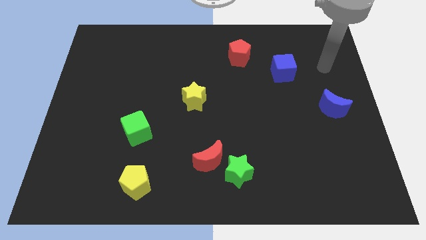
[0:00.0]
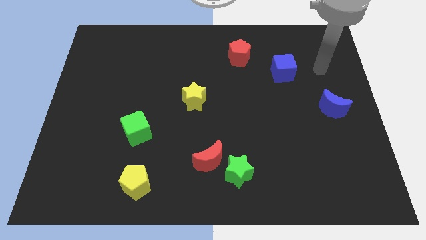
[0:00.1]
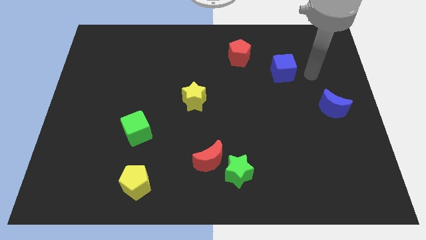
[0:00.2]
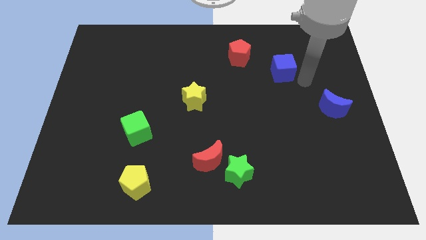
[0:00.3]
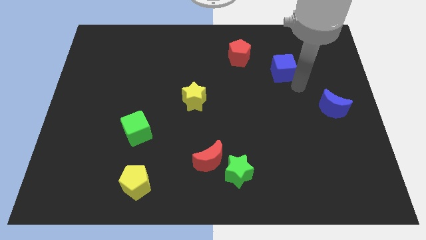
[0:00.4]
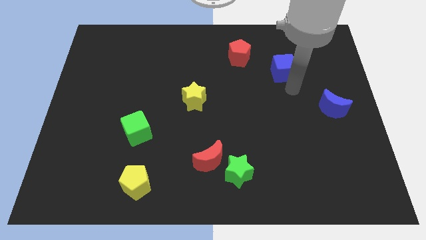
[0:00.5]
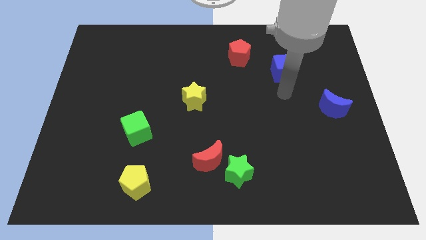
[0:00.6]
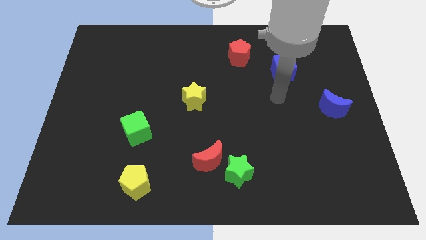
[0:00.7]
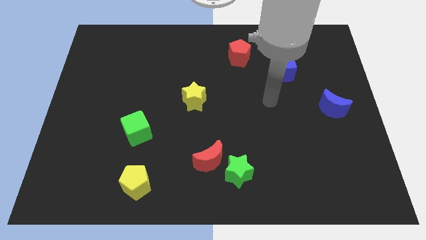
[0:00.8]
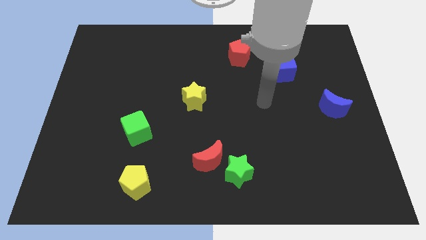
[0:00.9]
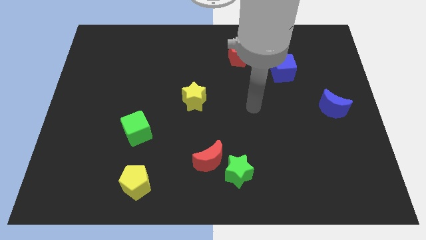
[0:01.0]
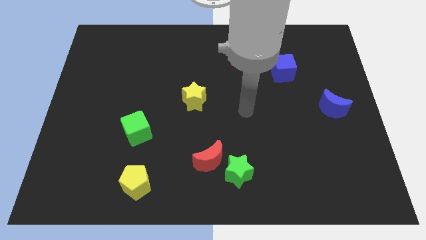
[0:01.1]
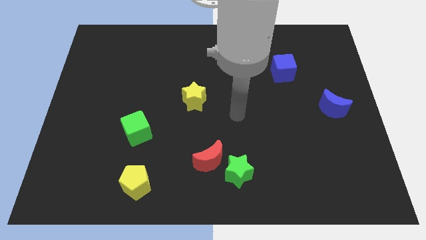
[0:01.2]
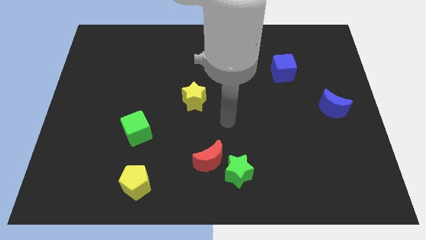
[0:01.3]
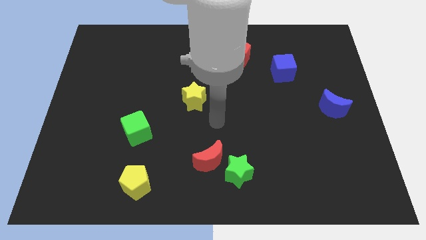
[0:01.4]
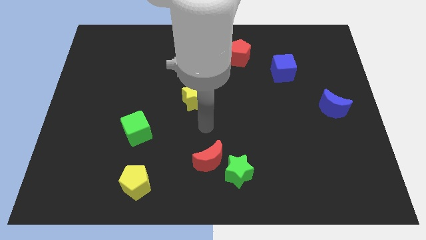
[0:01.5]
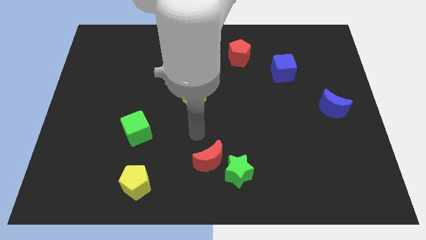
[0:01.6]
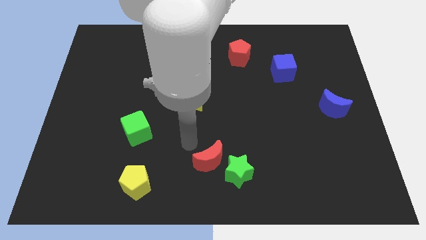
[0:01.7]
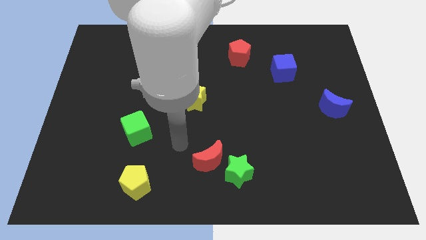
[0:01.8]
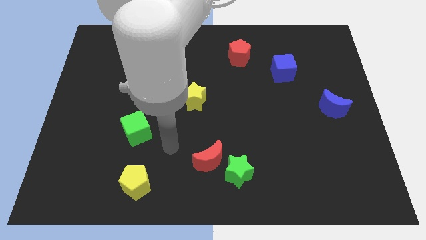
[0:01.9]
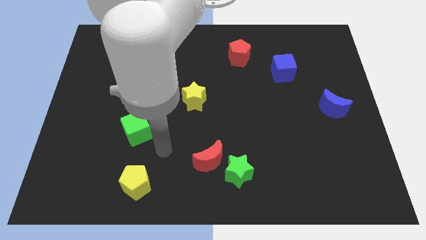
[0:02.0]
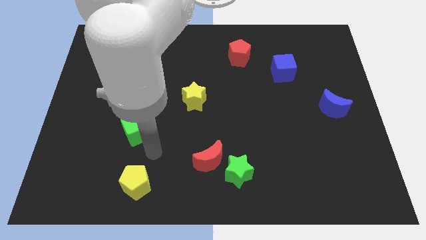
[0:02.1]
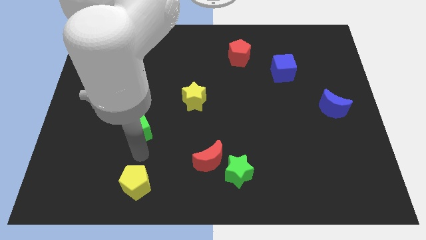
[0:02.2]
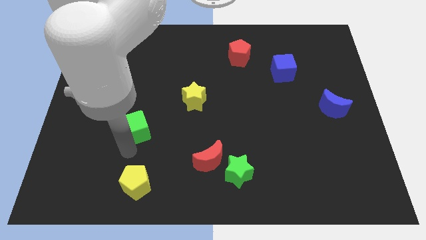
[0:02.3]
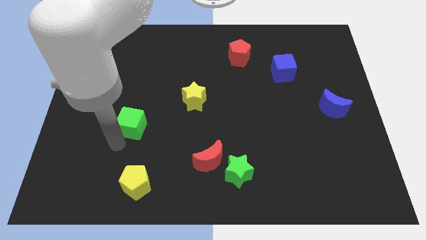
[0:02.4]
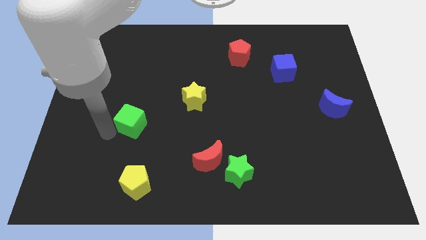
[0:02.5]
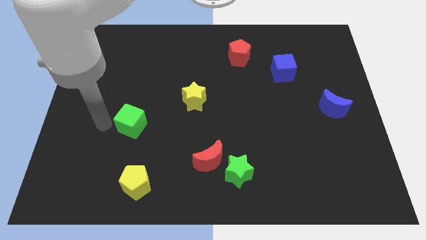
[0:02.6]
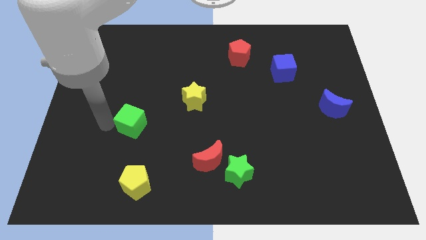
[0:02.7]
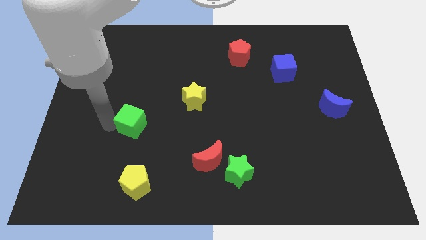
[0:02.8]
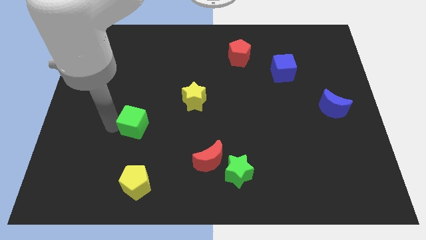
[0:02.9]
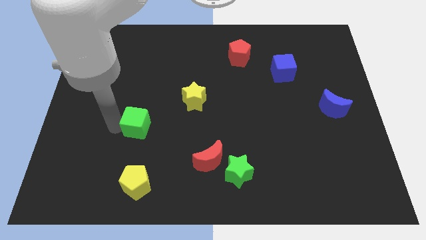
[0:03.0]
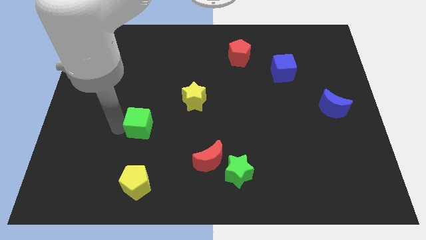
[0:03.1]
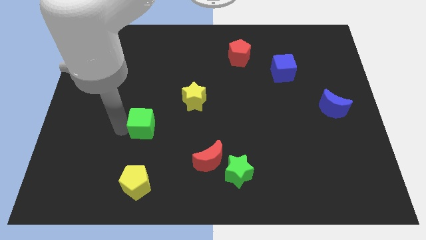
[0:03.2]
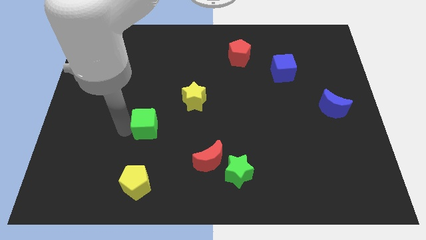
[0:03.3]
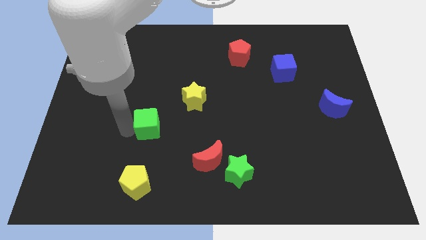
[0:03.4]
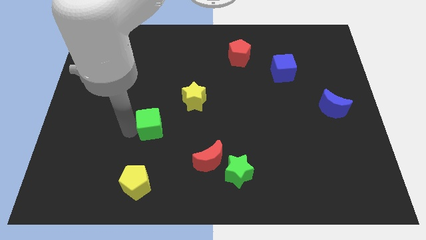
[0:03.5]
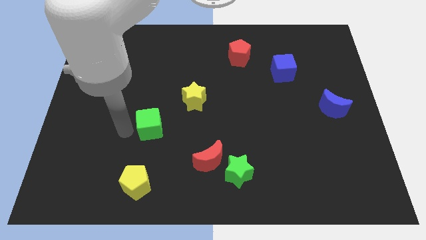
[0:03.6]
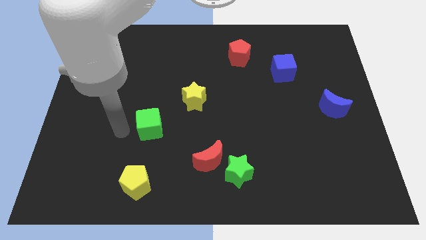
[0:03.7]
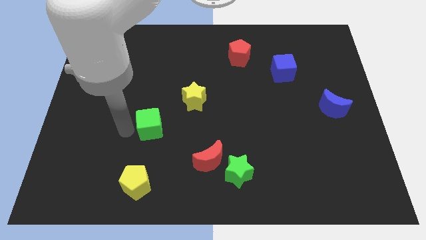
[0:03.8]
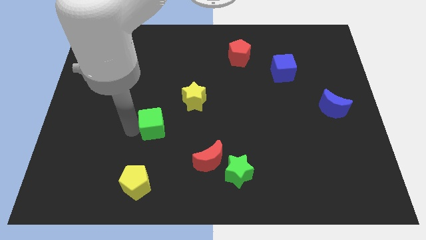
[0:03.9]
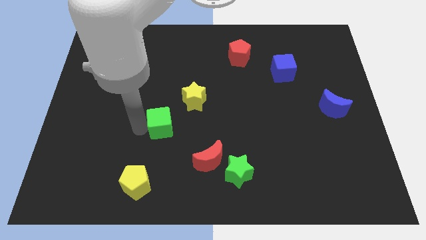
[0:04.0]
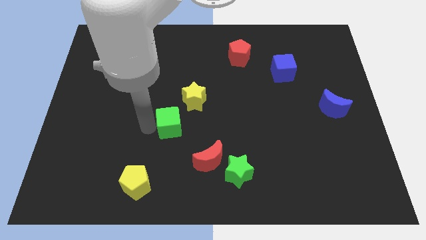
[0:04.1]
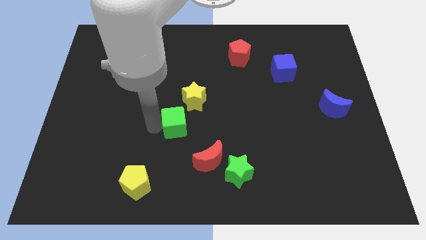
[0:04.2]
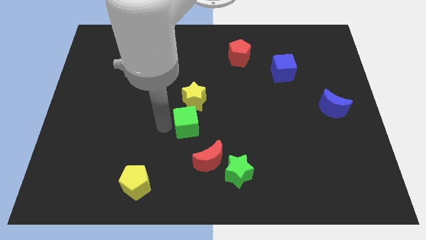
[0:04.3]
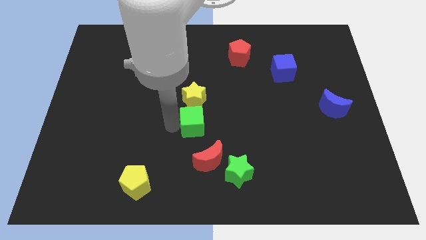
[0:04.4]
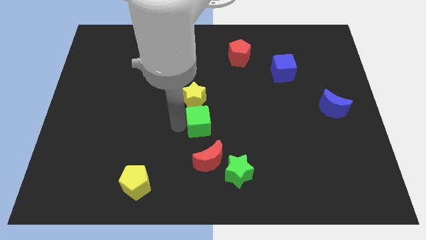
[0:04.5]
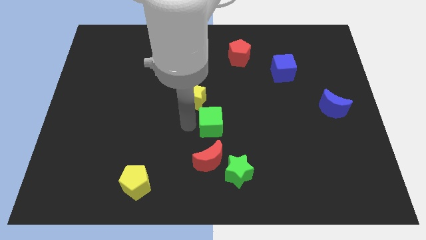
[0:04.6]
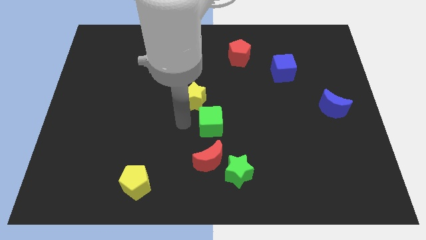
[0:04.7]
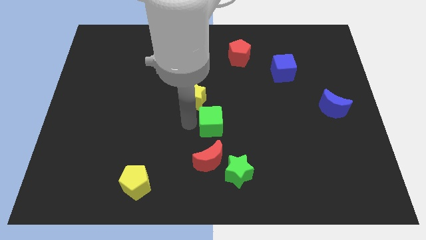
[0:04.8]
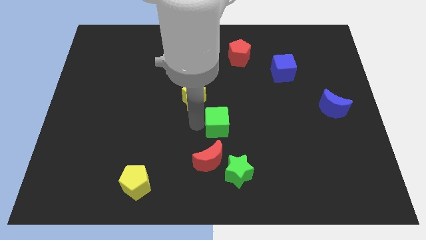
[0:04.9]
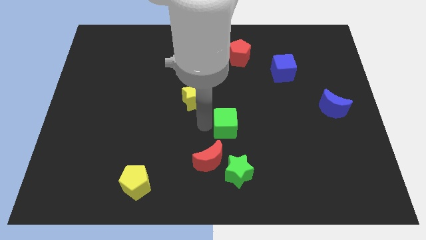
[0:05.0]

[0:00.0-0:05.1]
push the green cube to the right

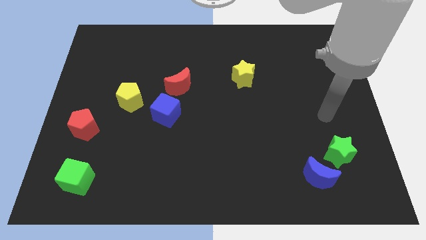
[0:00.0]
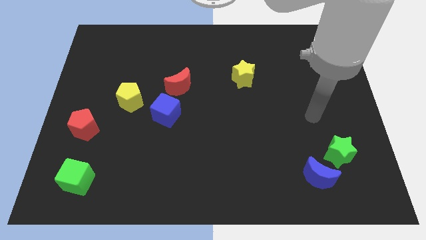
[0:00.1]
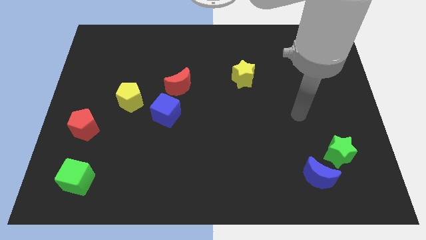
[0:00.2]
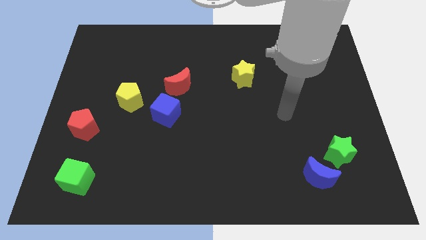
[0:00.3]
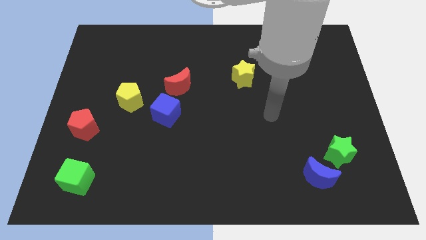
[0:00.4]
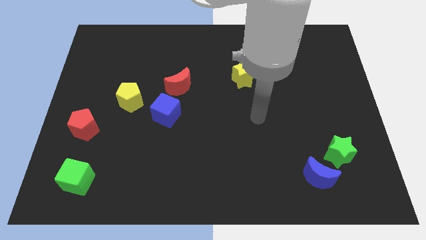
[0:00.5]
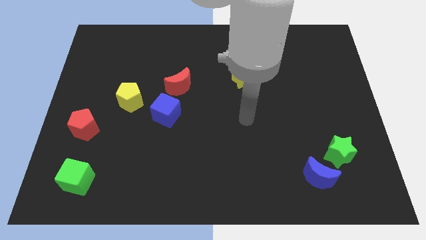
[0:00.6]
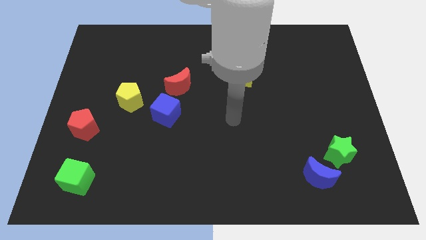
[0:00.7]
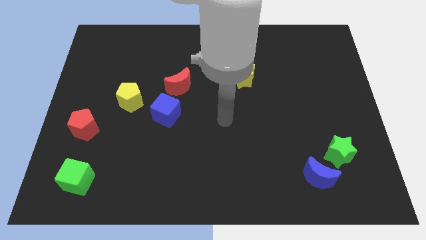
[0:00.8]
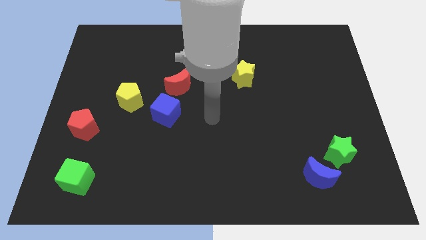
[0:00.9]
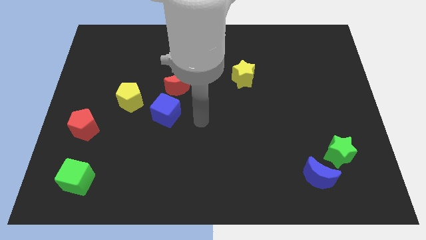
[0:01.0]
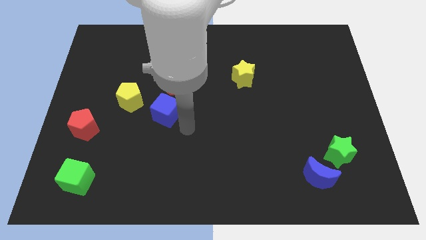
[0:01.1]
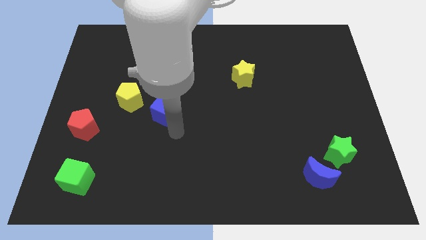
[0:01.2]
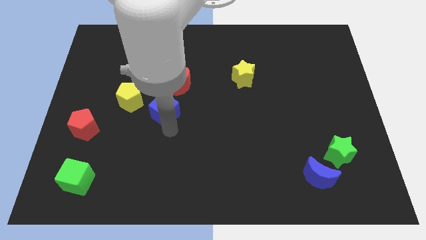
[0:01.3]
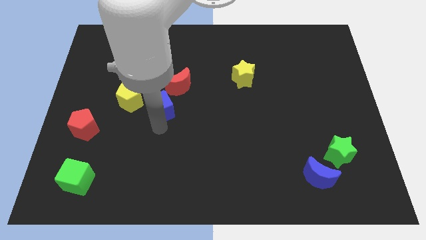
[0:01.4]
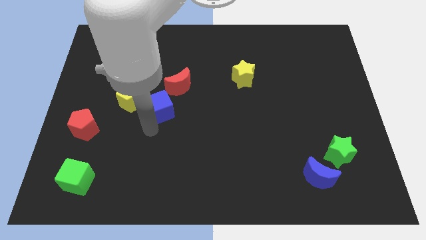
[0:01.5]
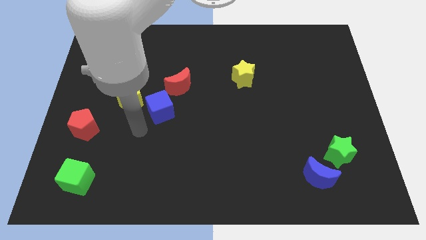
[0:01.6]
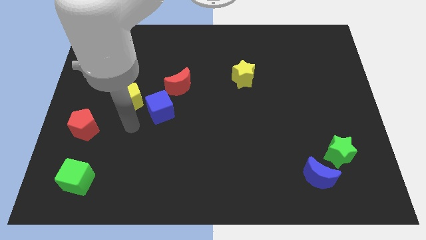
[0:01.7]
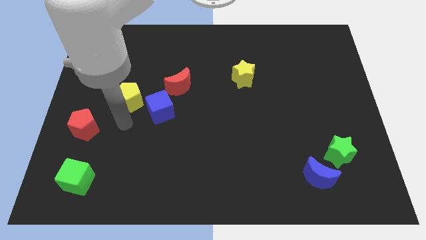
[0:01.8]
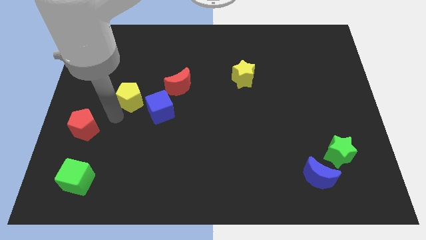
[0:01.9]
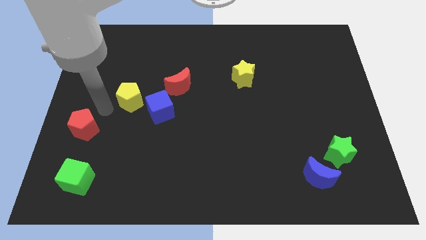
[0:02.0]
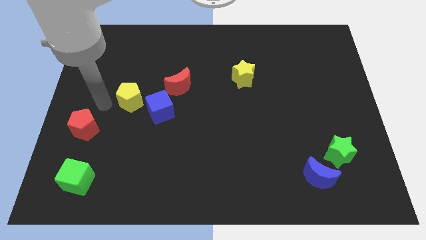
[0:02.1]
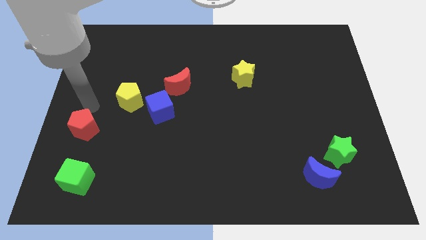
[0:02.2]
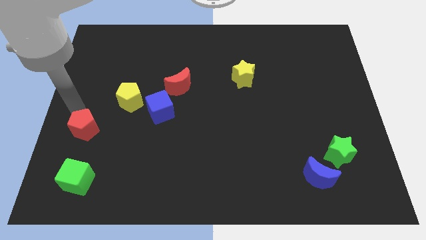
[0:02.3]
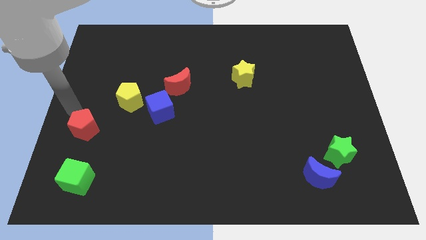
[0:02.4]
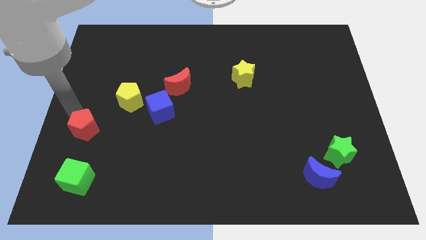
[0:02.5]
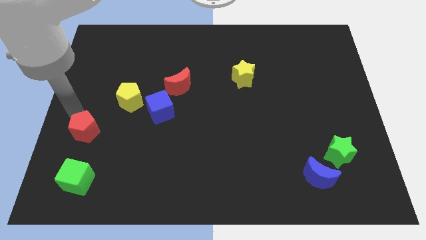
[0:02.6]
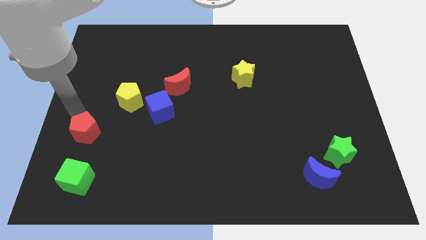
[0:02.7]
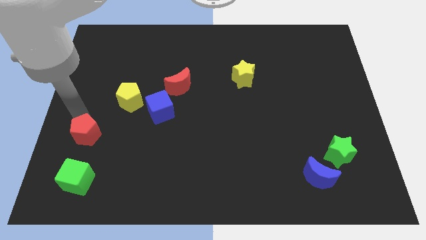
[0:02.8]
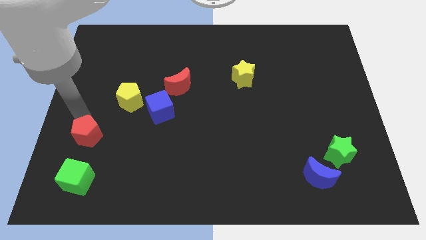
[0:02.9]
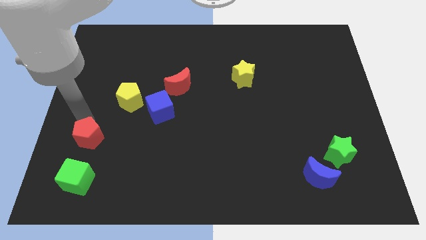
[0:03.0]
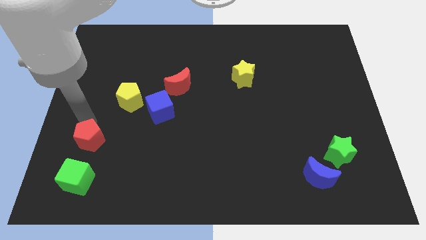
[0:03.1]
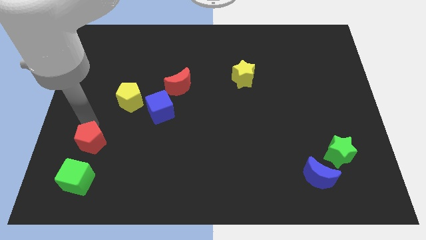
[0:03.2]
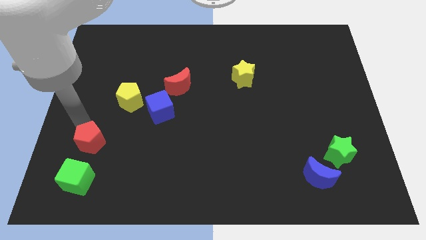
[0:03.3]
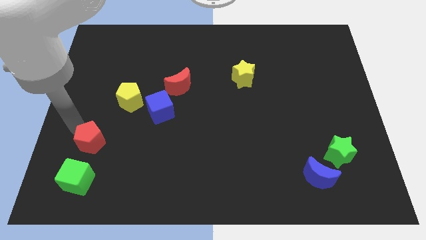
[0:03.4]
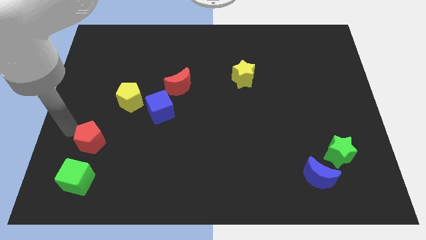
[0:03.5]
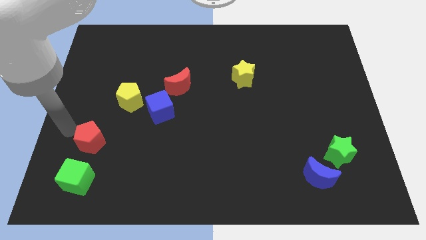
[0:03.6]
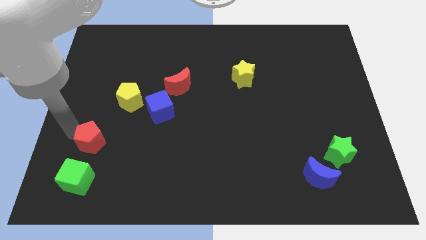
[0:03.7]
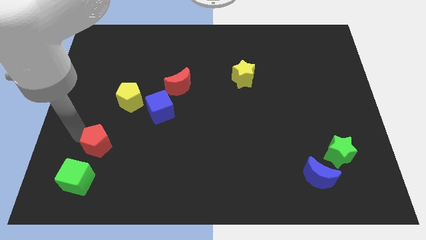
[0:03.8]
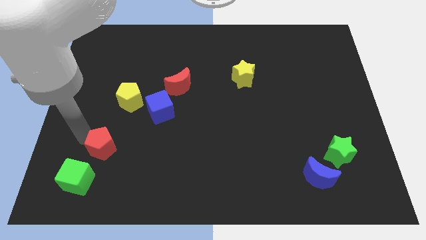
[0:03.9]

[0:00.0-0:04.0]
move the red pentagon down and right somewhat
